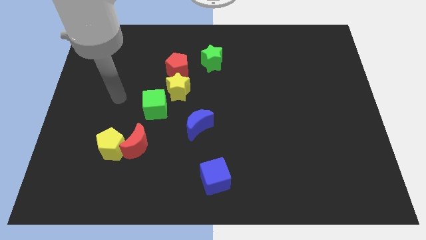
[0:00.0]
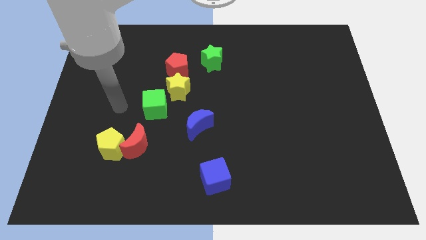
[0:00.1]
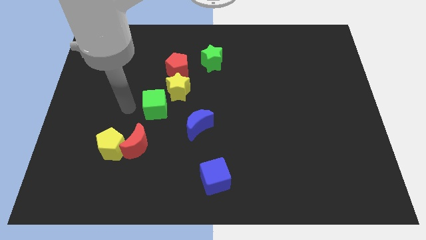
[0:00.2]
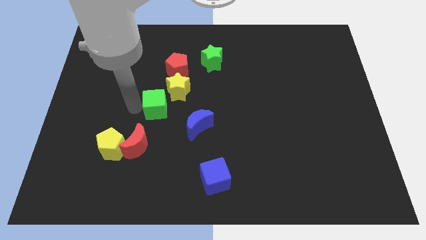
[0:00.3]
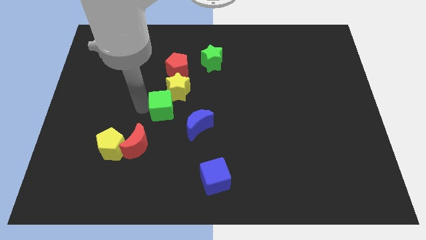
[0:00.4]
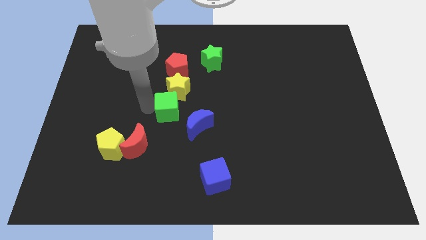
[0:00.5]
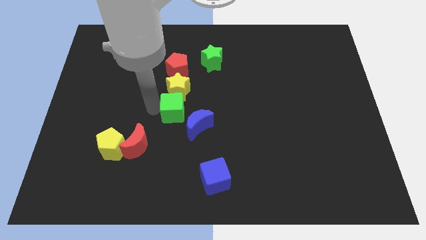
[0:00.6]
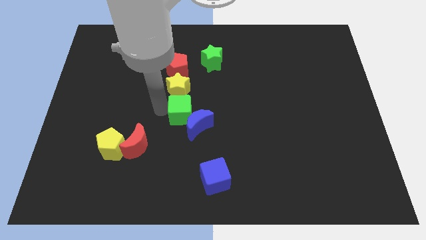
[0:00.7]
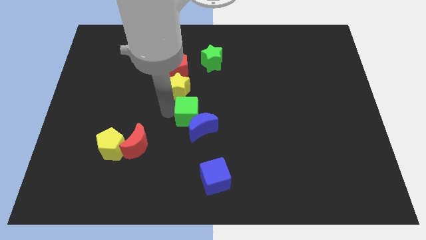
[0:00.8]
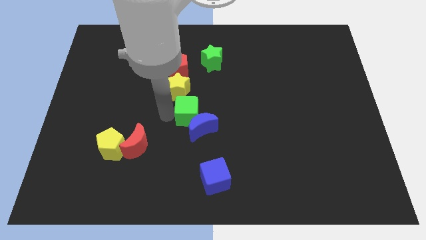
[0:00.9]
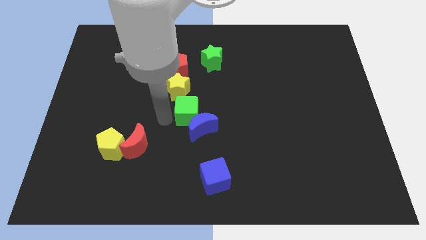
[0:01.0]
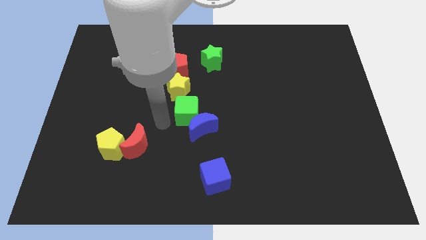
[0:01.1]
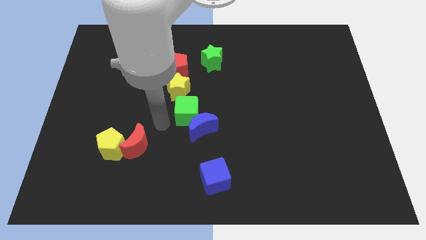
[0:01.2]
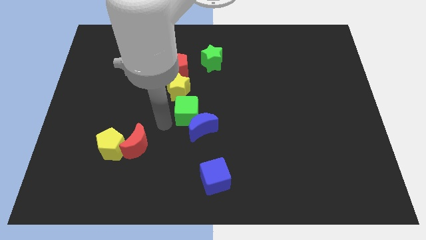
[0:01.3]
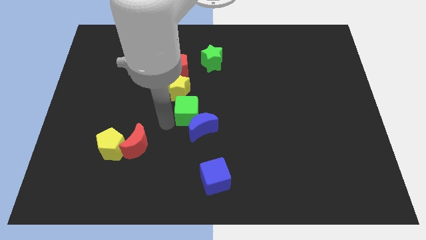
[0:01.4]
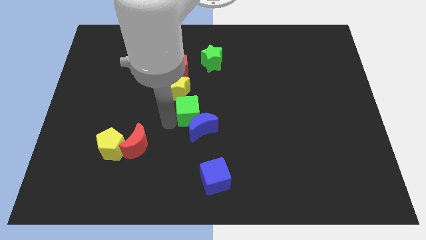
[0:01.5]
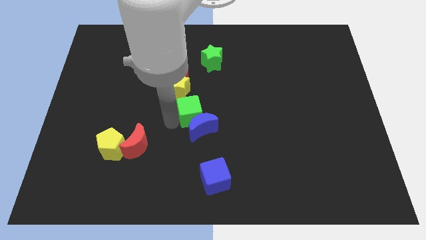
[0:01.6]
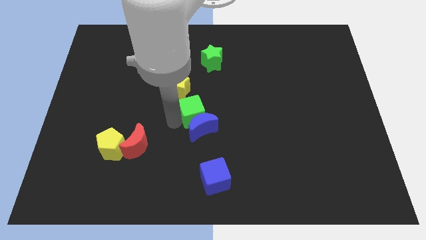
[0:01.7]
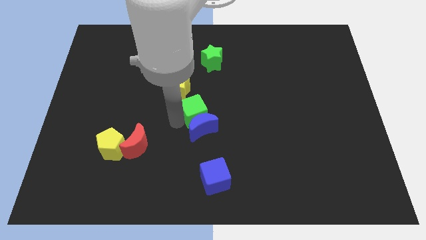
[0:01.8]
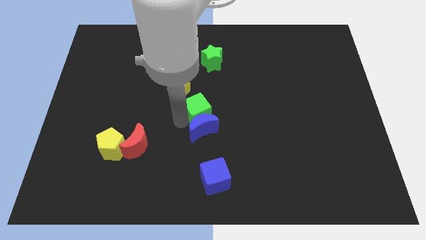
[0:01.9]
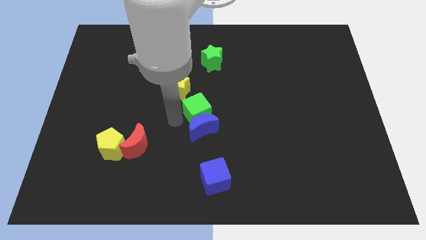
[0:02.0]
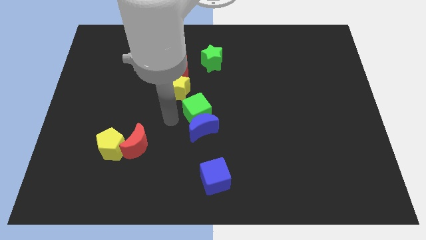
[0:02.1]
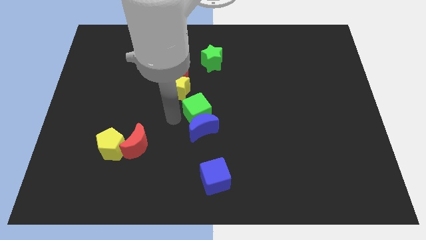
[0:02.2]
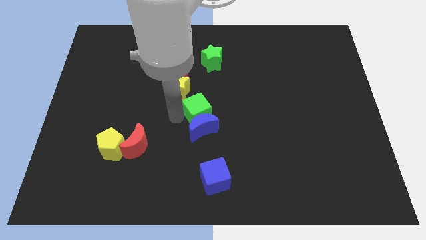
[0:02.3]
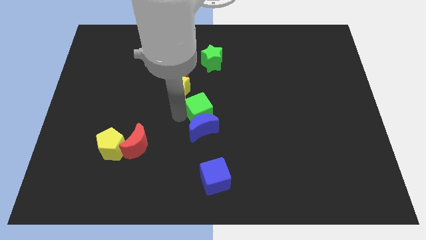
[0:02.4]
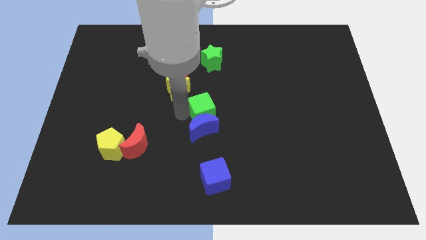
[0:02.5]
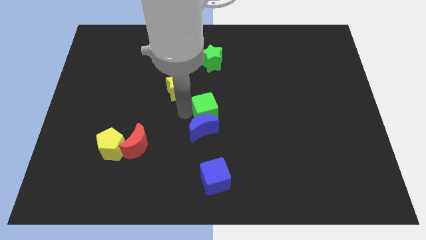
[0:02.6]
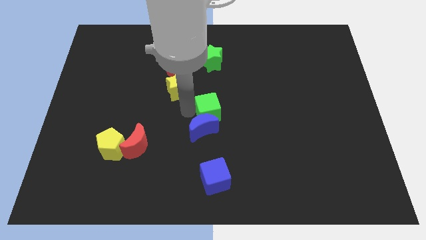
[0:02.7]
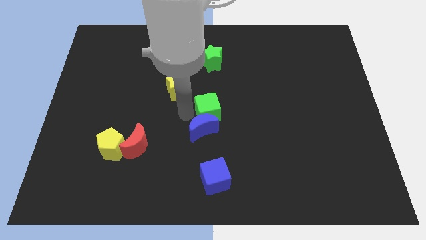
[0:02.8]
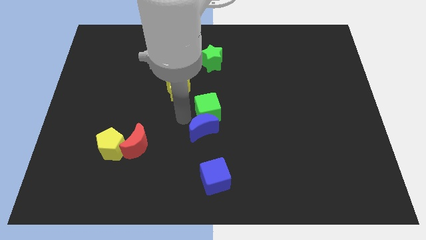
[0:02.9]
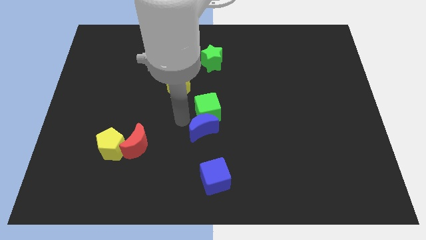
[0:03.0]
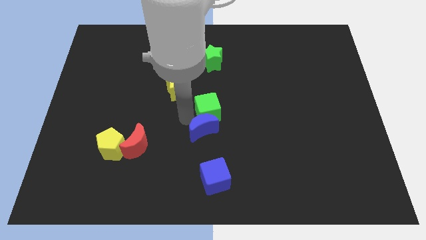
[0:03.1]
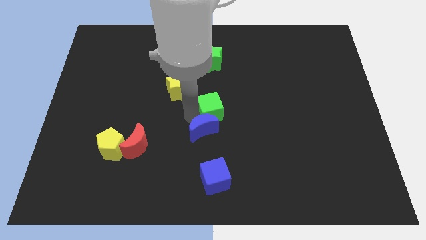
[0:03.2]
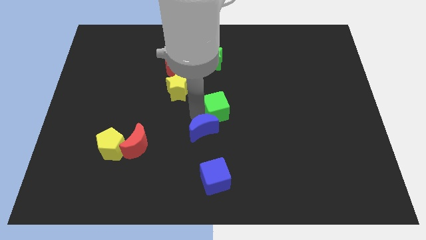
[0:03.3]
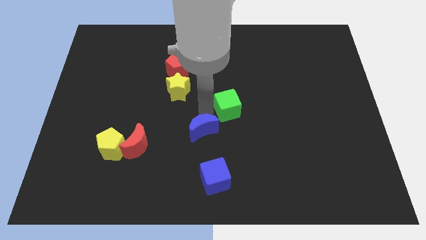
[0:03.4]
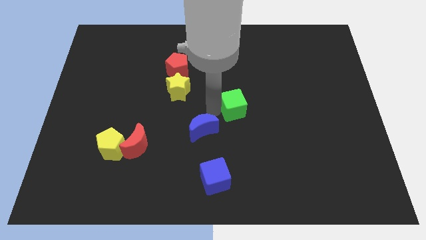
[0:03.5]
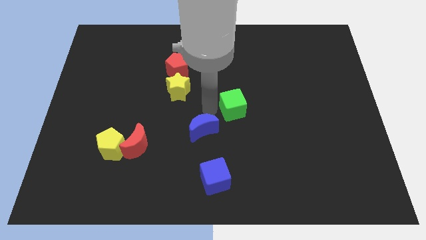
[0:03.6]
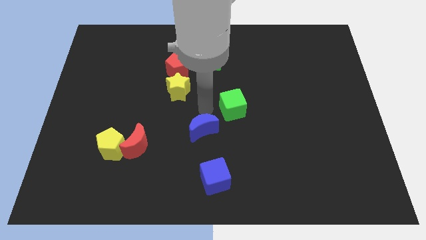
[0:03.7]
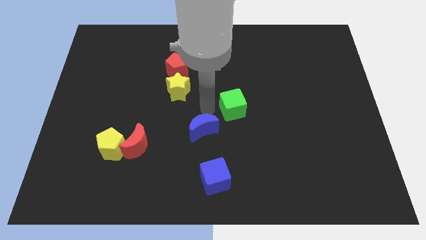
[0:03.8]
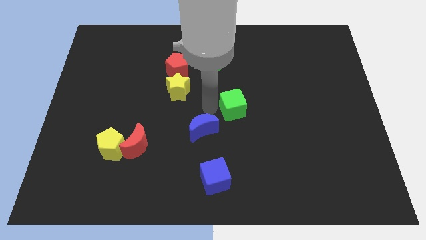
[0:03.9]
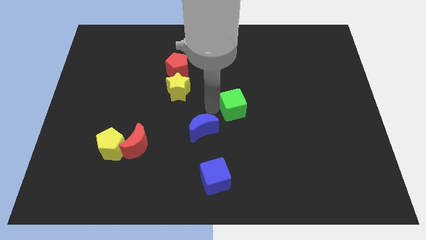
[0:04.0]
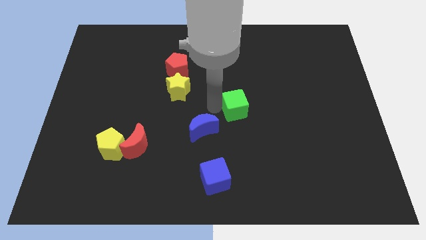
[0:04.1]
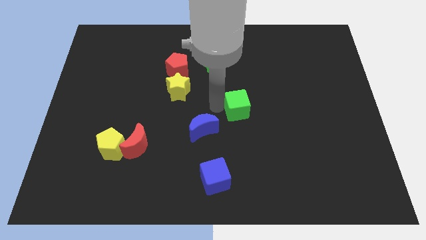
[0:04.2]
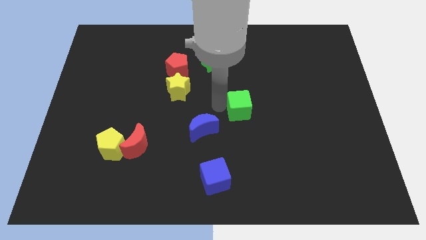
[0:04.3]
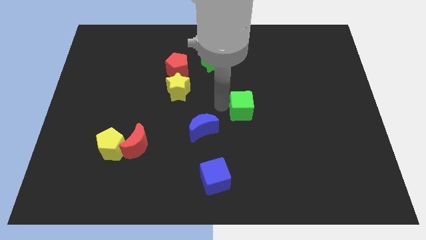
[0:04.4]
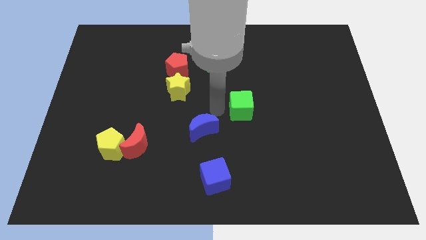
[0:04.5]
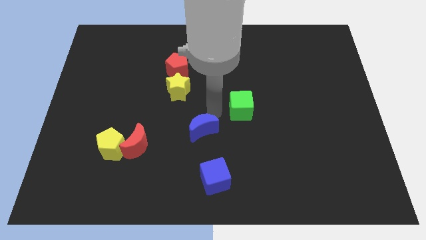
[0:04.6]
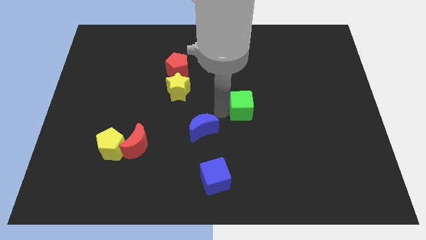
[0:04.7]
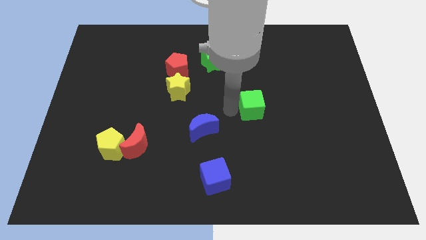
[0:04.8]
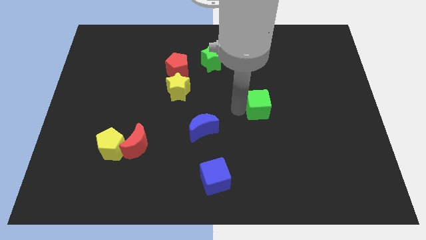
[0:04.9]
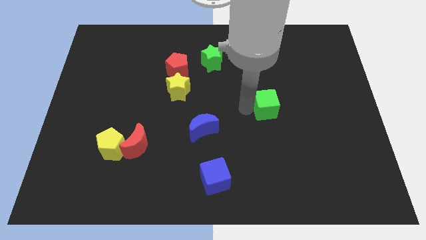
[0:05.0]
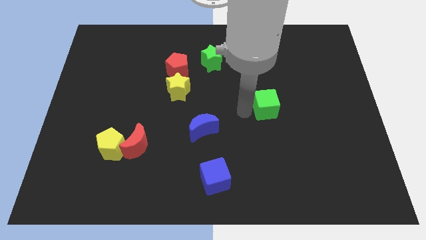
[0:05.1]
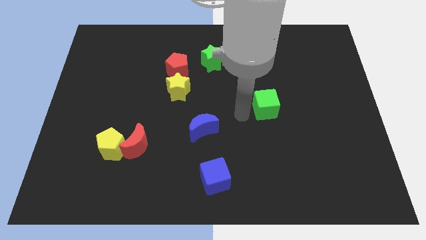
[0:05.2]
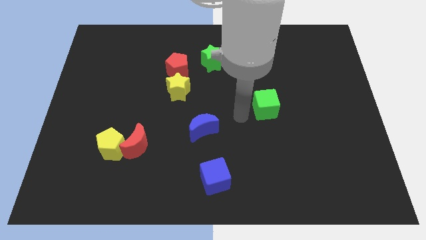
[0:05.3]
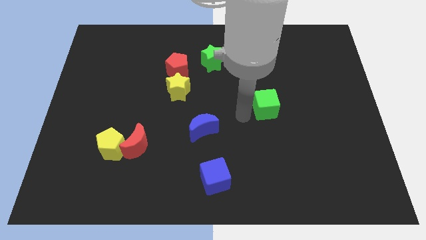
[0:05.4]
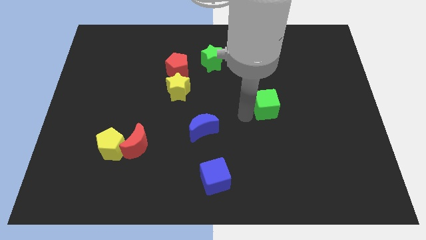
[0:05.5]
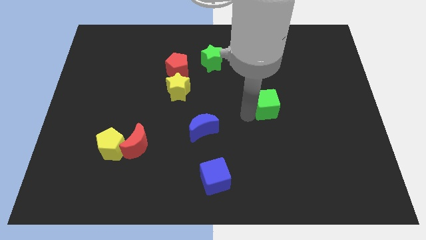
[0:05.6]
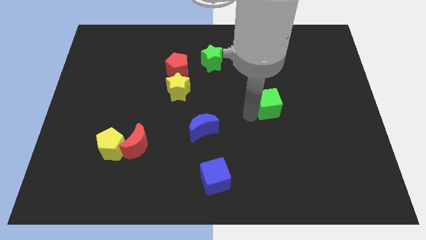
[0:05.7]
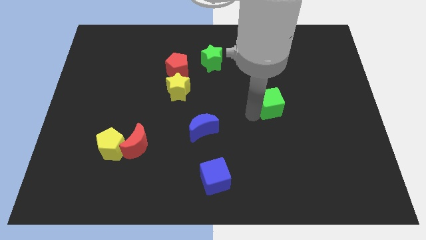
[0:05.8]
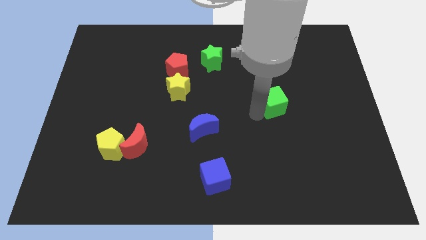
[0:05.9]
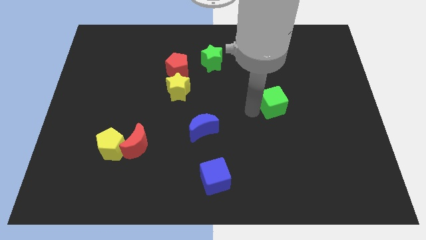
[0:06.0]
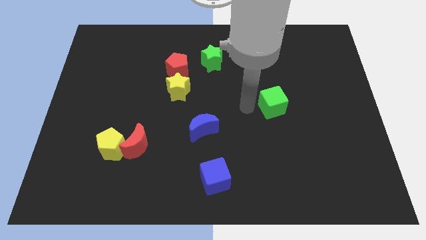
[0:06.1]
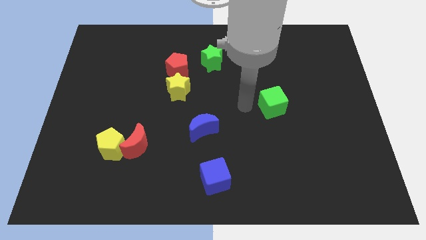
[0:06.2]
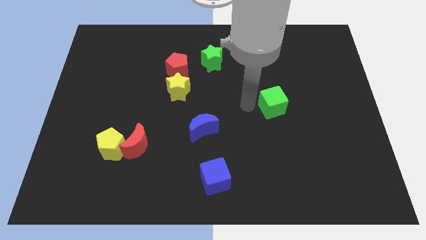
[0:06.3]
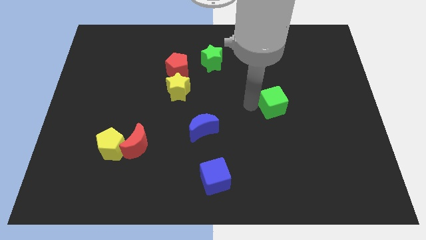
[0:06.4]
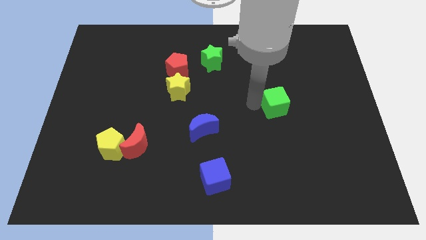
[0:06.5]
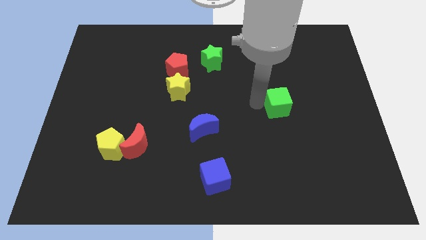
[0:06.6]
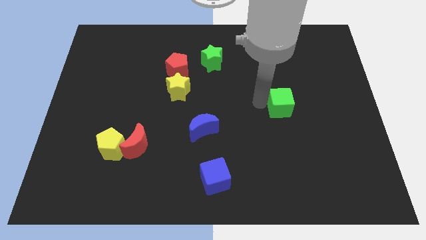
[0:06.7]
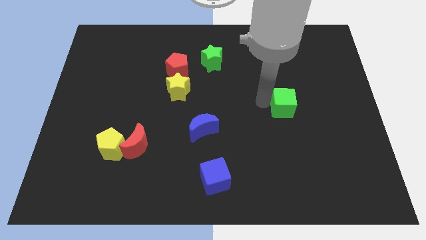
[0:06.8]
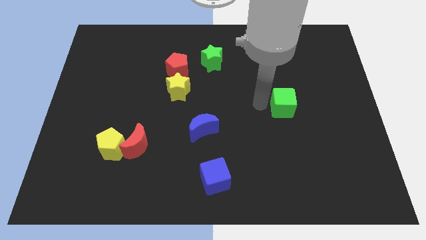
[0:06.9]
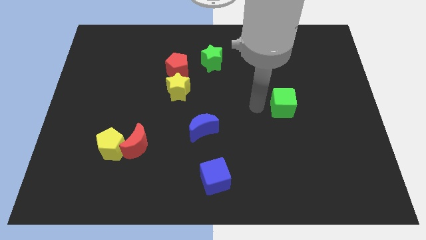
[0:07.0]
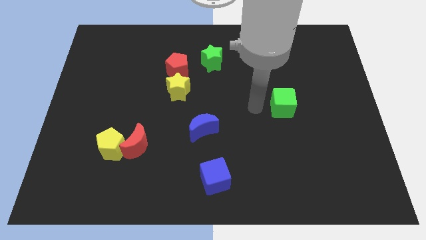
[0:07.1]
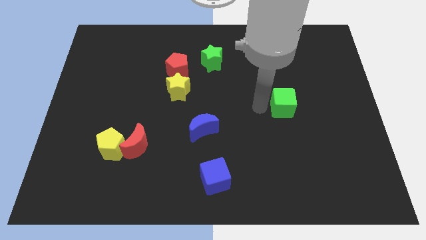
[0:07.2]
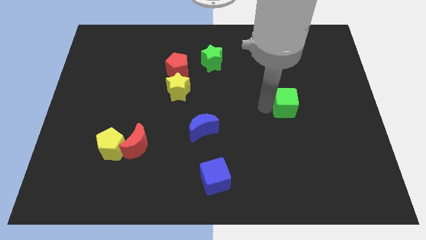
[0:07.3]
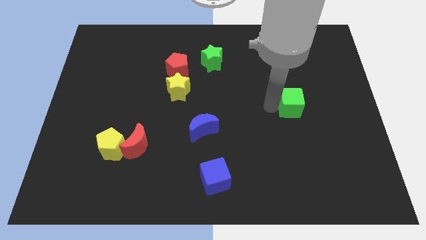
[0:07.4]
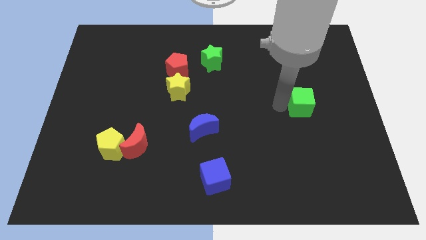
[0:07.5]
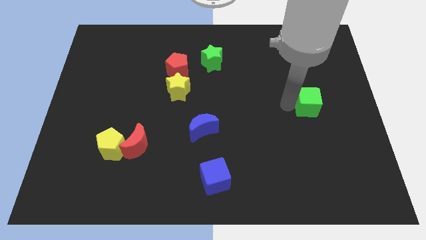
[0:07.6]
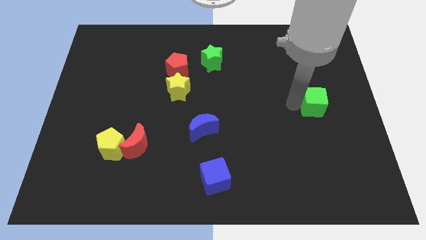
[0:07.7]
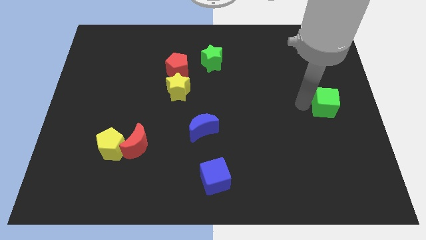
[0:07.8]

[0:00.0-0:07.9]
move the green cube to the right side
